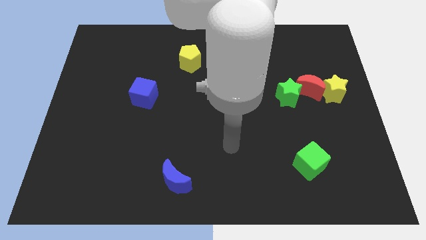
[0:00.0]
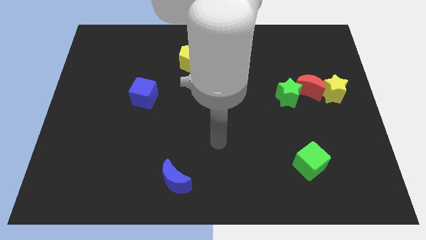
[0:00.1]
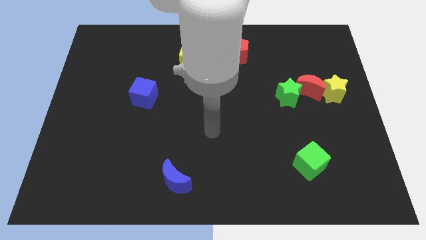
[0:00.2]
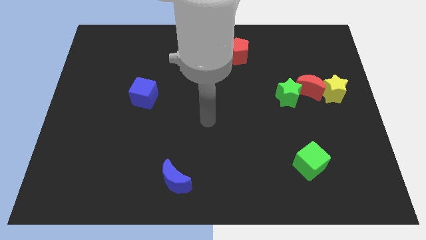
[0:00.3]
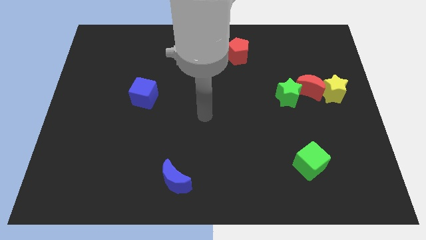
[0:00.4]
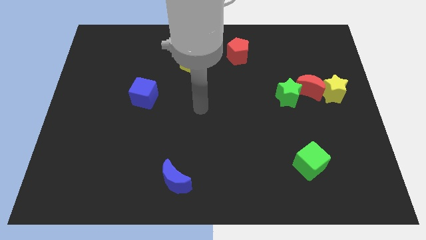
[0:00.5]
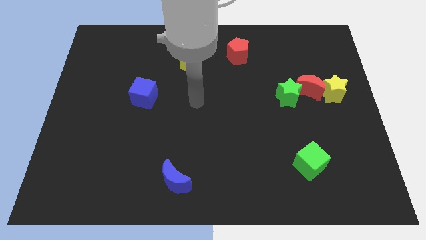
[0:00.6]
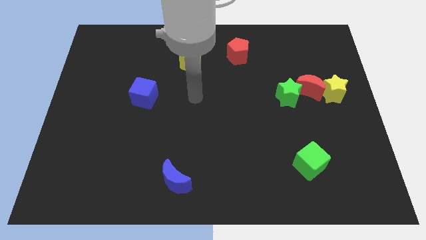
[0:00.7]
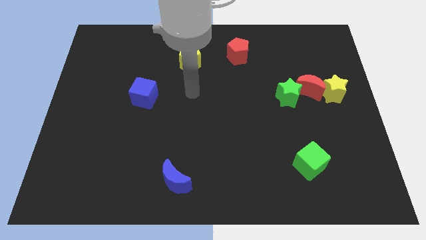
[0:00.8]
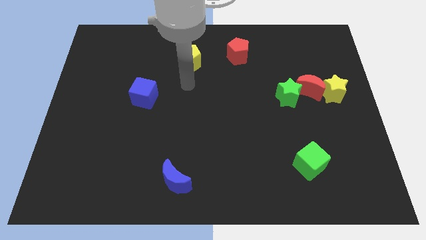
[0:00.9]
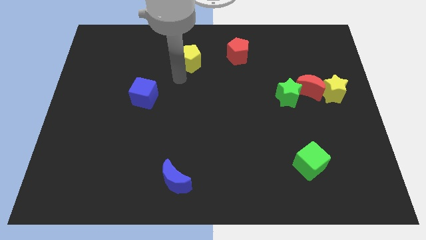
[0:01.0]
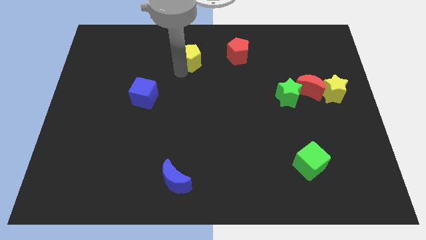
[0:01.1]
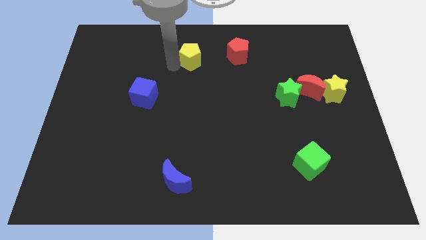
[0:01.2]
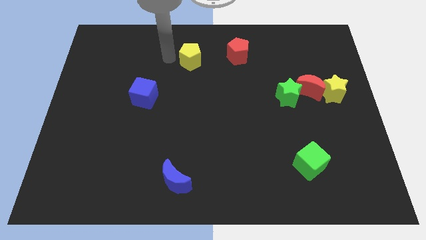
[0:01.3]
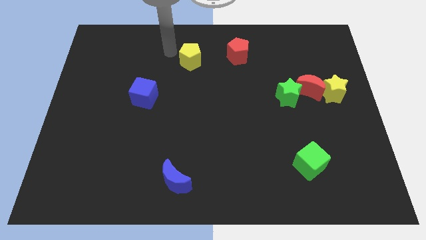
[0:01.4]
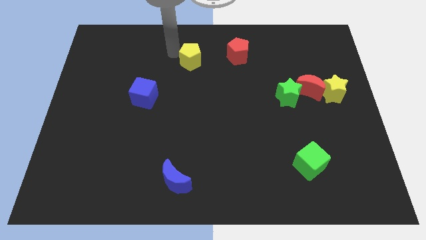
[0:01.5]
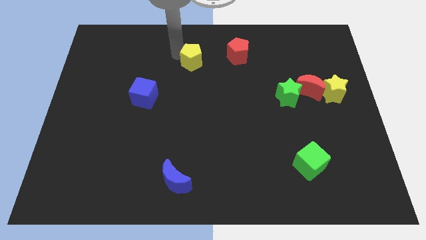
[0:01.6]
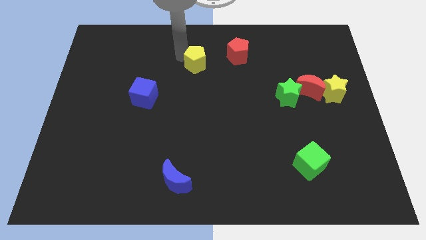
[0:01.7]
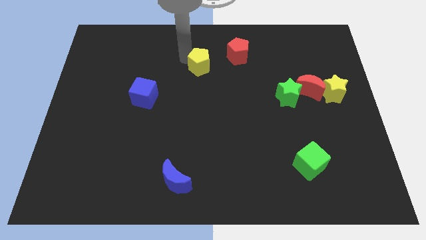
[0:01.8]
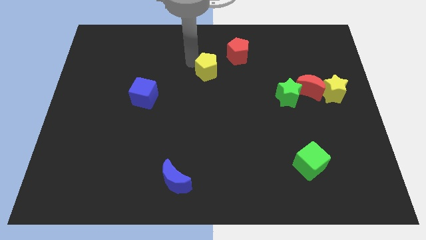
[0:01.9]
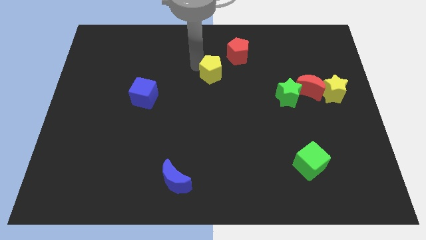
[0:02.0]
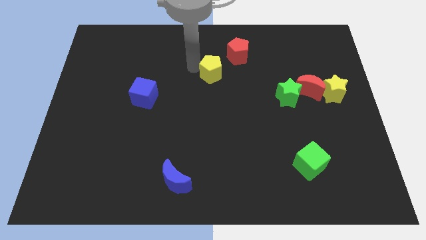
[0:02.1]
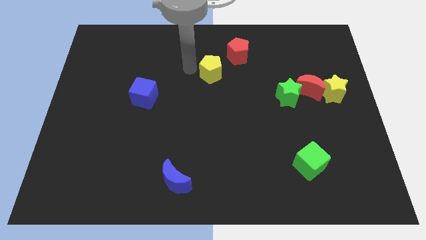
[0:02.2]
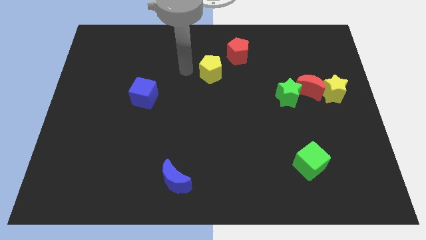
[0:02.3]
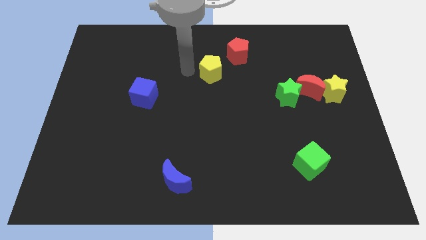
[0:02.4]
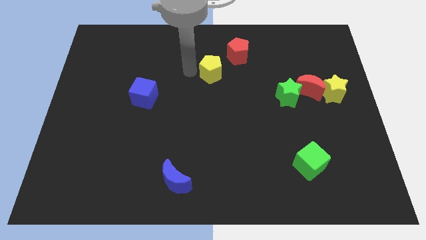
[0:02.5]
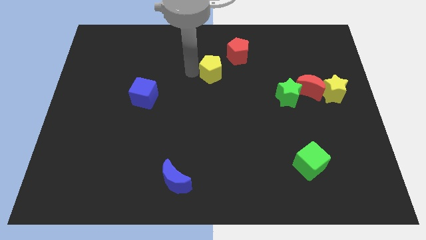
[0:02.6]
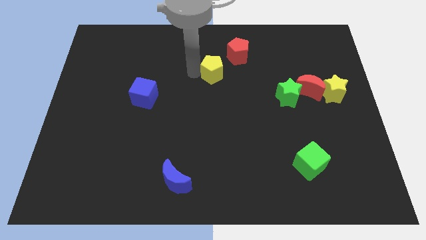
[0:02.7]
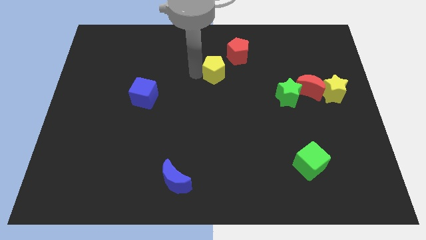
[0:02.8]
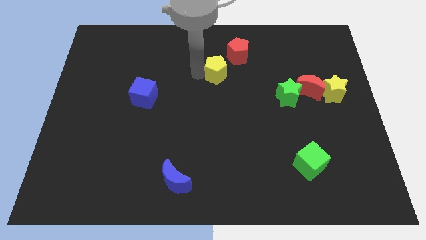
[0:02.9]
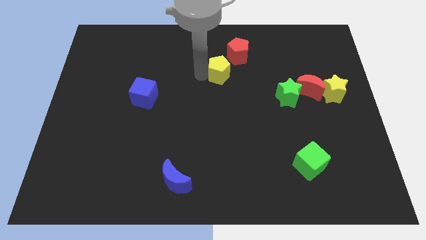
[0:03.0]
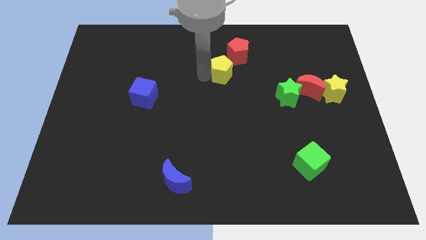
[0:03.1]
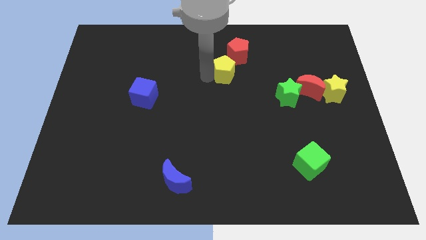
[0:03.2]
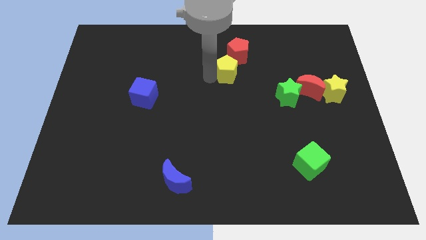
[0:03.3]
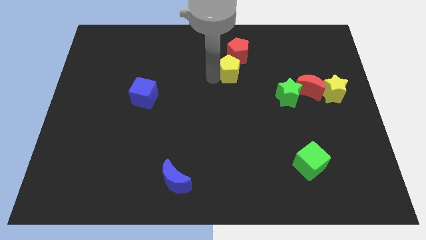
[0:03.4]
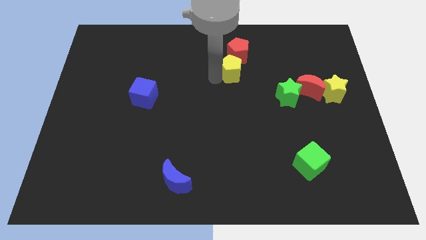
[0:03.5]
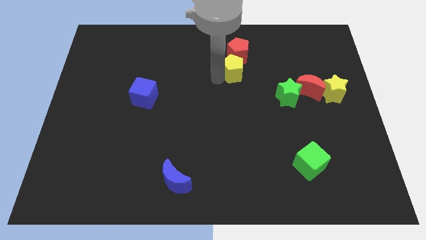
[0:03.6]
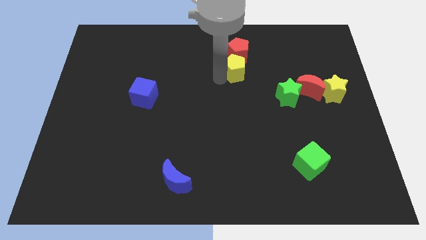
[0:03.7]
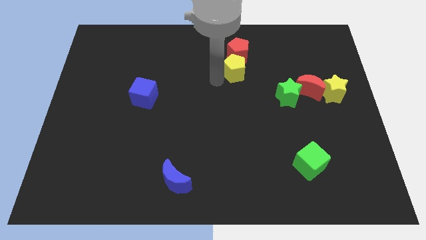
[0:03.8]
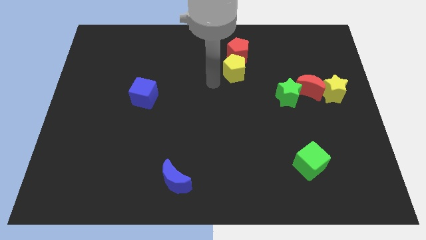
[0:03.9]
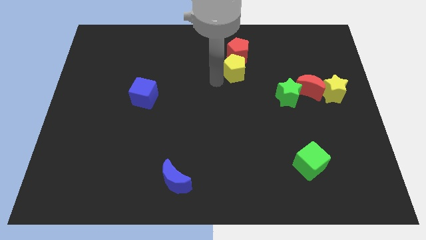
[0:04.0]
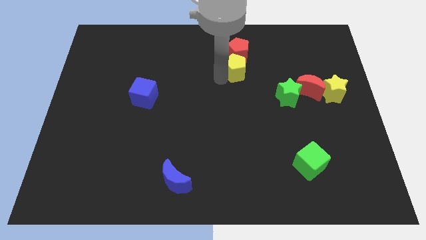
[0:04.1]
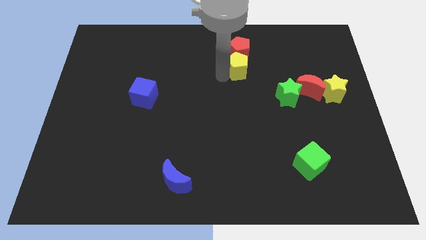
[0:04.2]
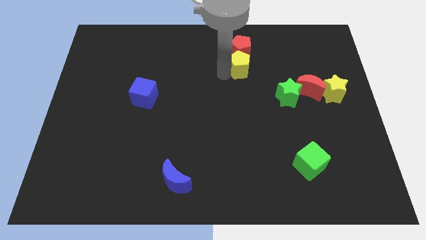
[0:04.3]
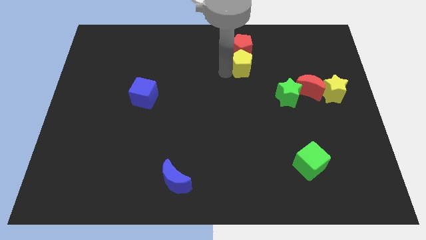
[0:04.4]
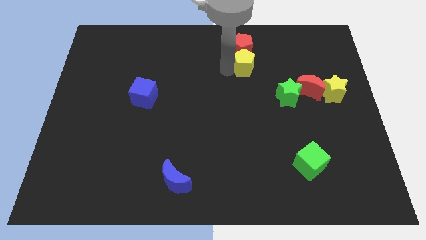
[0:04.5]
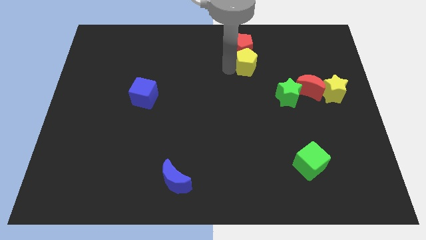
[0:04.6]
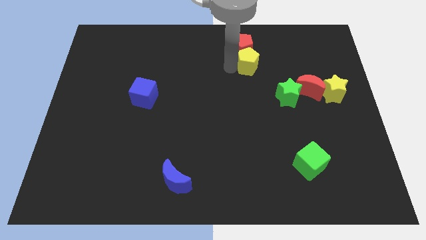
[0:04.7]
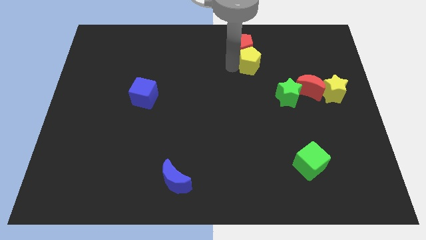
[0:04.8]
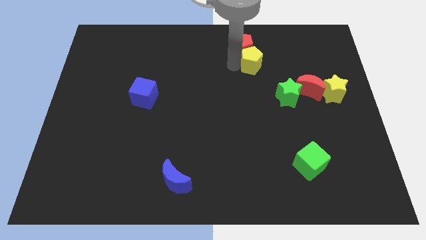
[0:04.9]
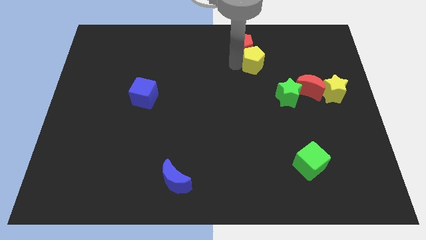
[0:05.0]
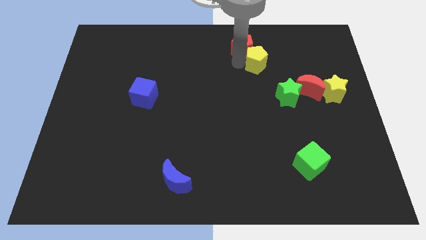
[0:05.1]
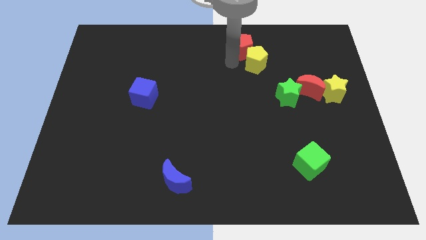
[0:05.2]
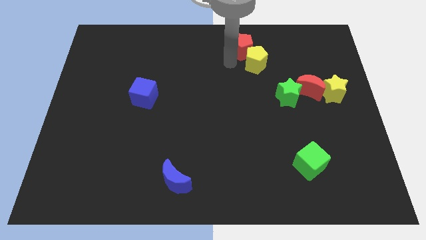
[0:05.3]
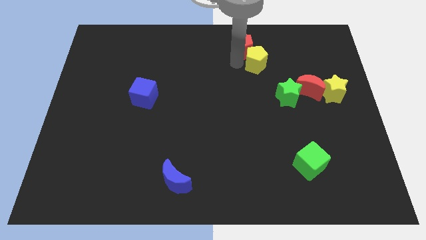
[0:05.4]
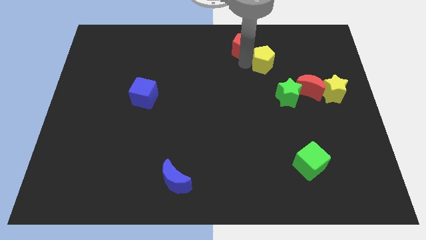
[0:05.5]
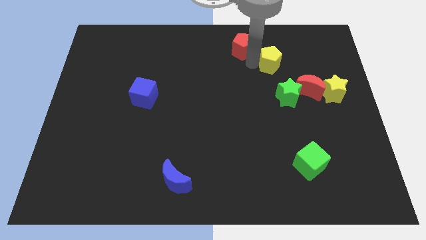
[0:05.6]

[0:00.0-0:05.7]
move the yellow pentagon to the right

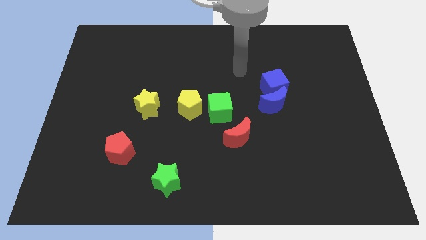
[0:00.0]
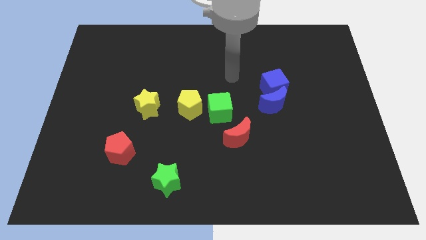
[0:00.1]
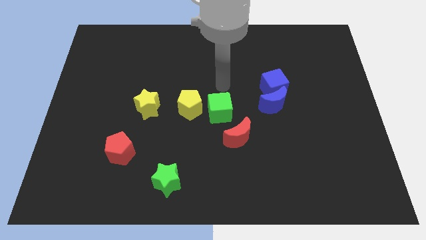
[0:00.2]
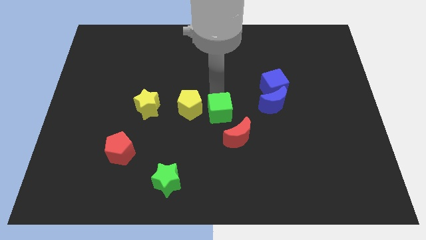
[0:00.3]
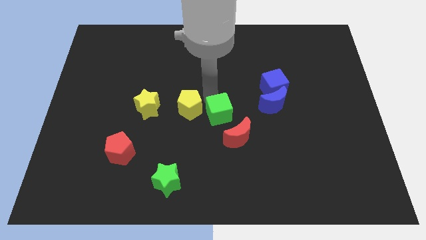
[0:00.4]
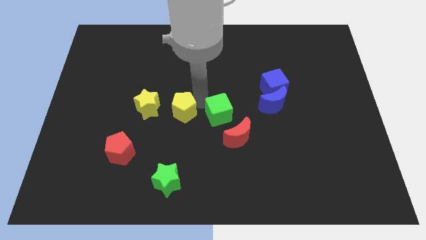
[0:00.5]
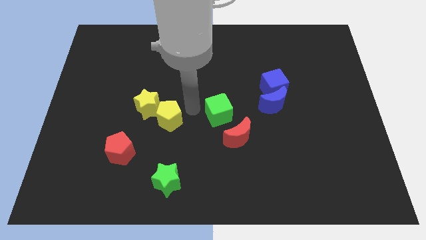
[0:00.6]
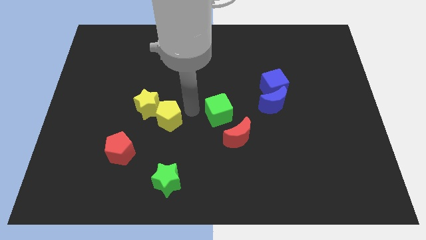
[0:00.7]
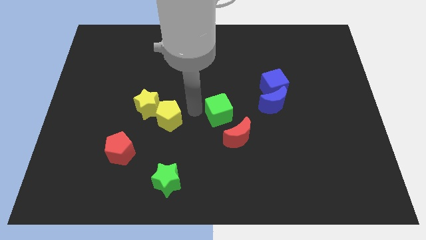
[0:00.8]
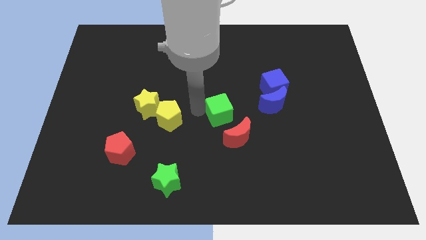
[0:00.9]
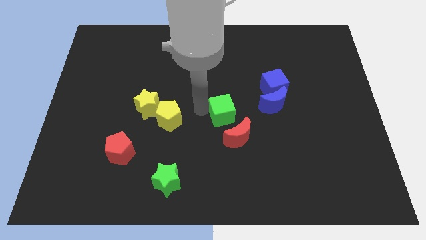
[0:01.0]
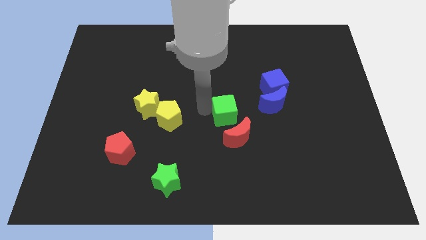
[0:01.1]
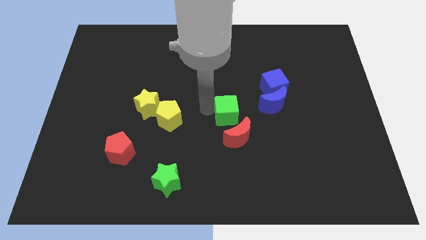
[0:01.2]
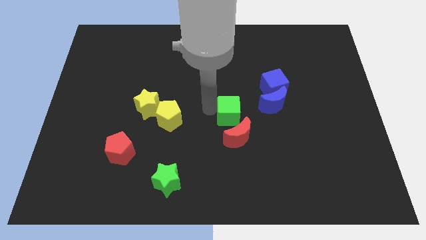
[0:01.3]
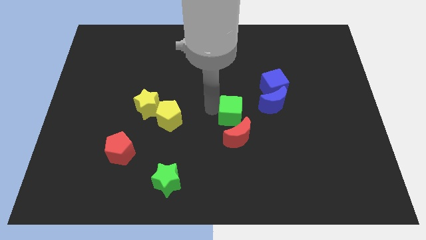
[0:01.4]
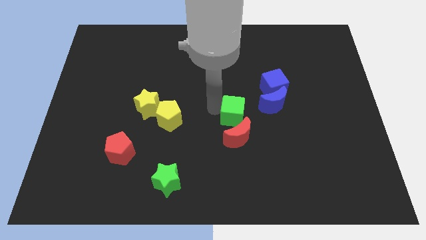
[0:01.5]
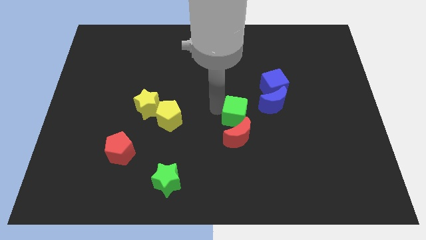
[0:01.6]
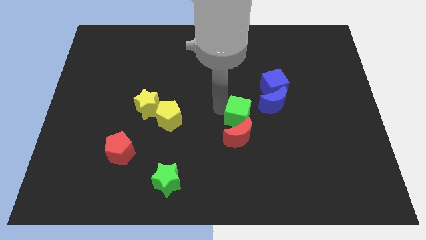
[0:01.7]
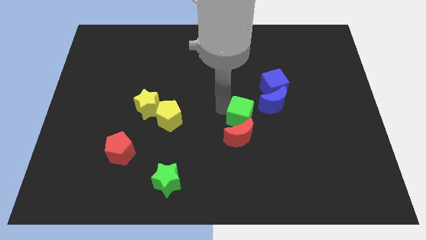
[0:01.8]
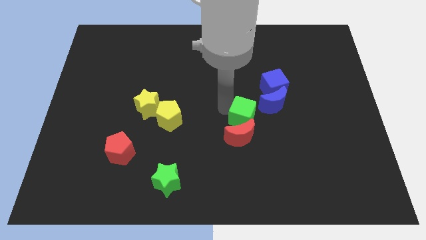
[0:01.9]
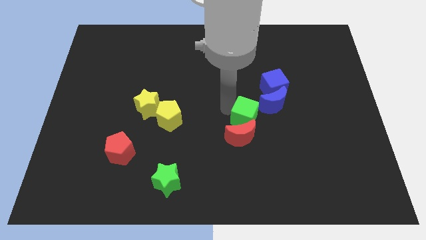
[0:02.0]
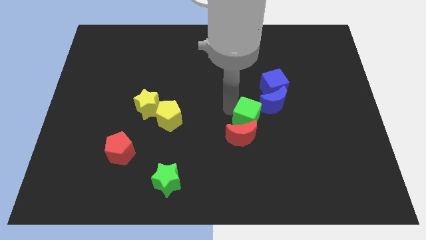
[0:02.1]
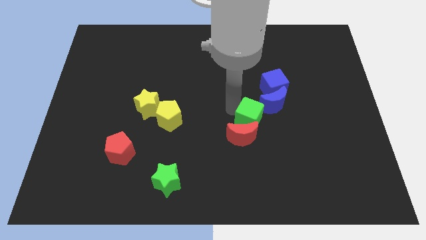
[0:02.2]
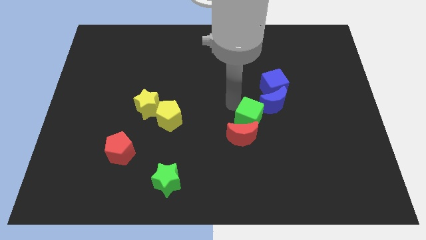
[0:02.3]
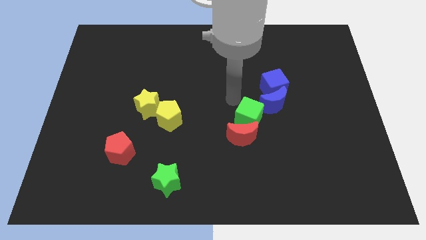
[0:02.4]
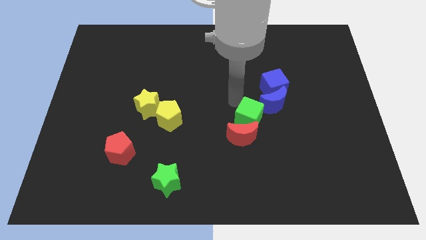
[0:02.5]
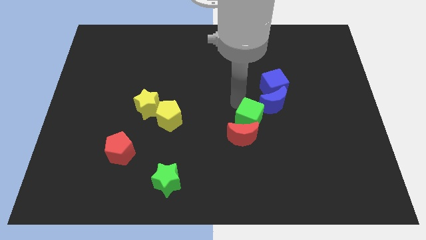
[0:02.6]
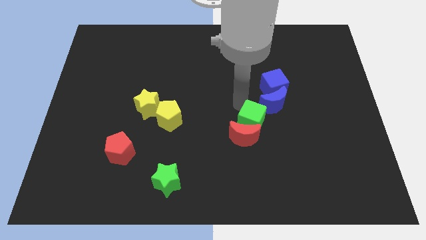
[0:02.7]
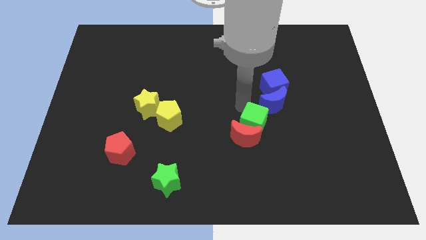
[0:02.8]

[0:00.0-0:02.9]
slightly push the green cube downwards and to the right
